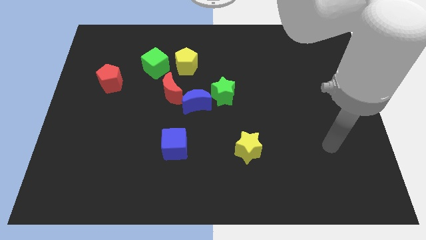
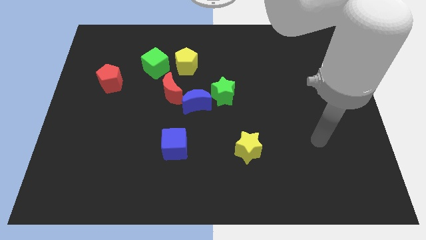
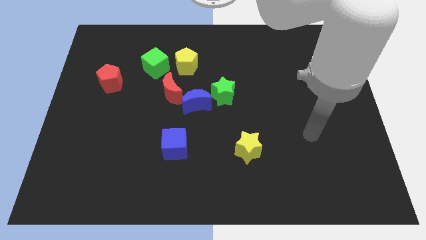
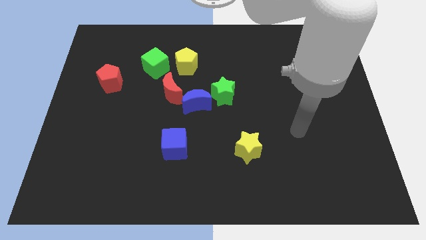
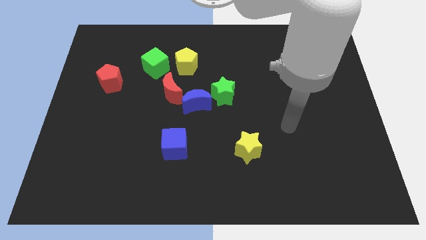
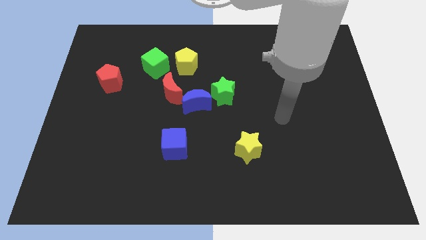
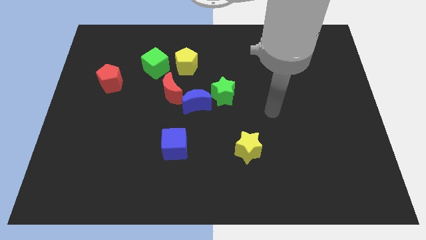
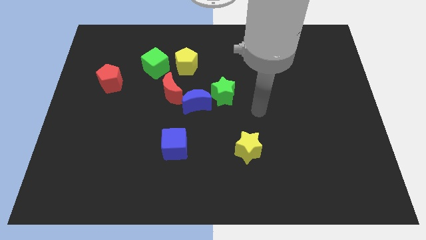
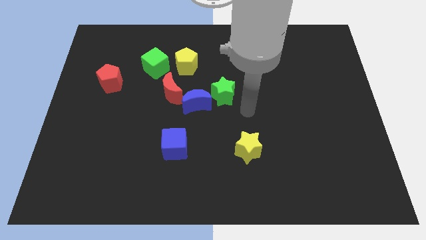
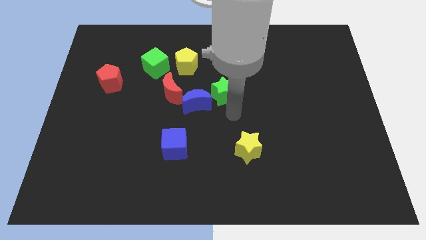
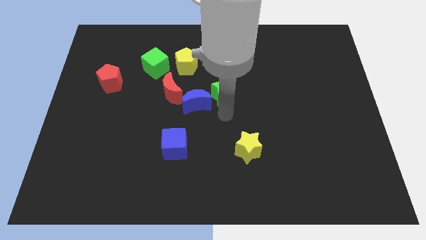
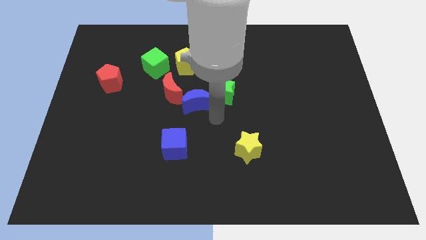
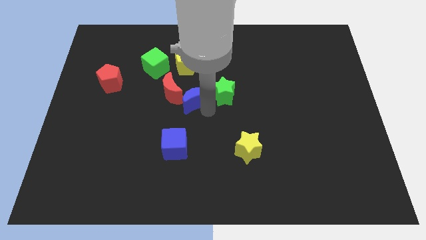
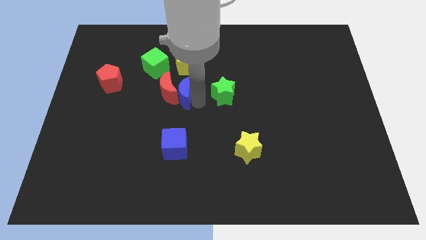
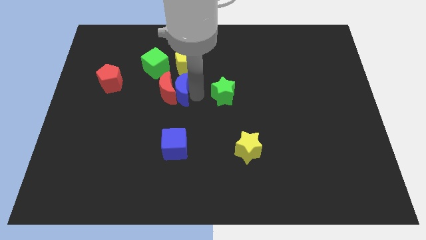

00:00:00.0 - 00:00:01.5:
separate the green star from the blue moon

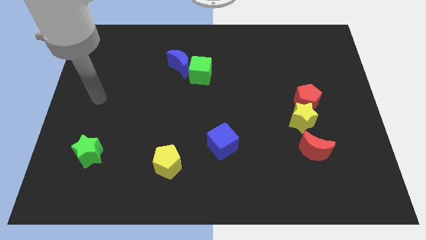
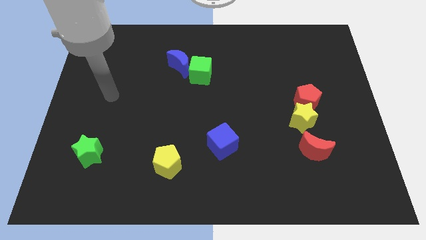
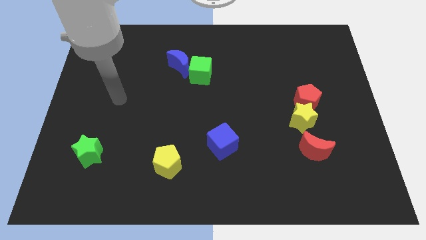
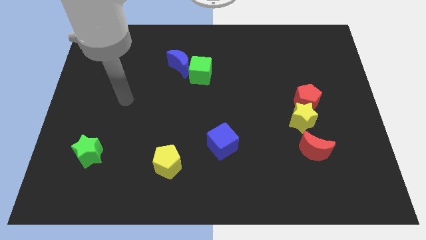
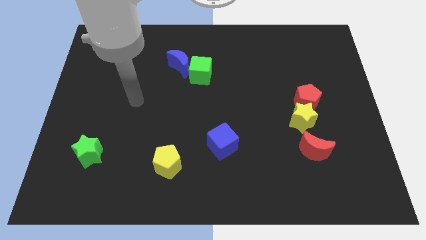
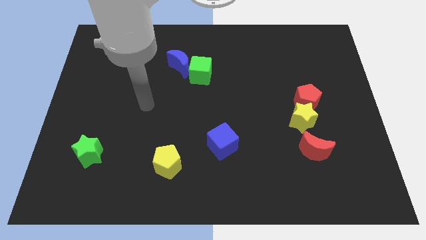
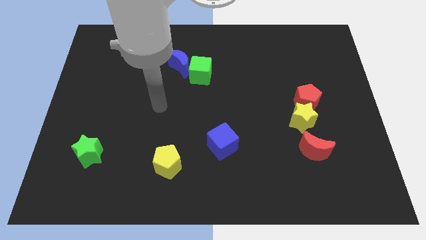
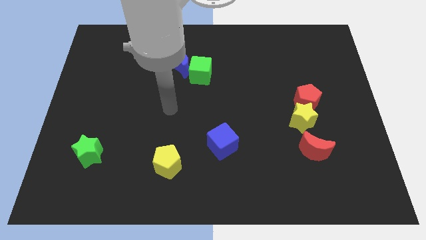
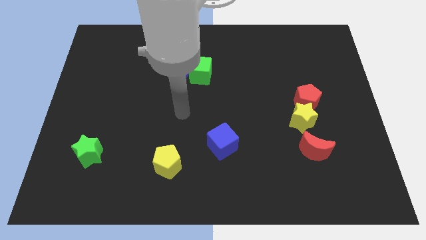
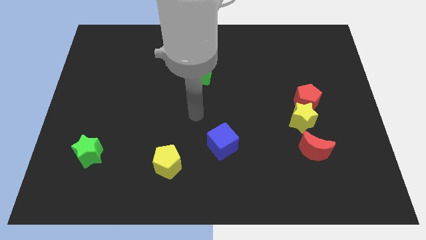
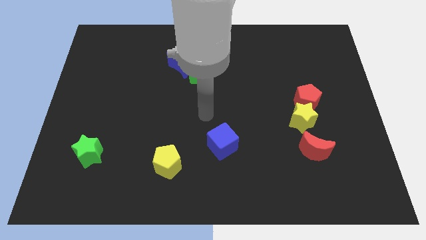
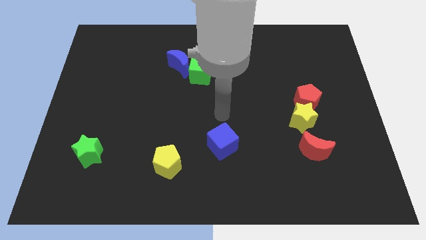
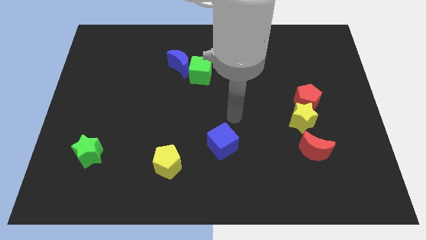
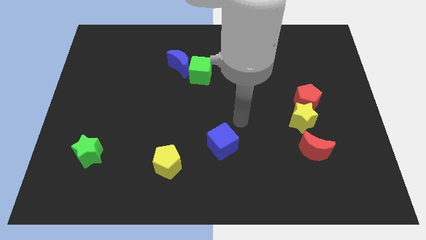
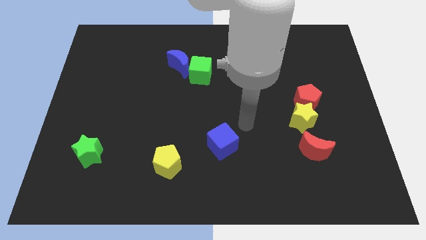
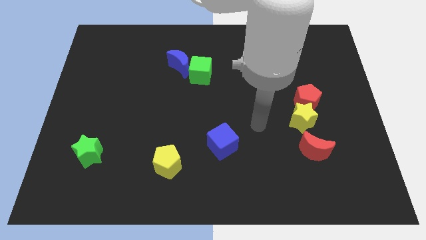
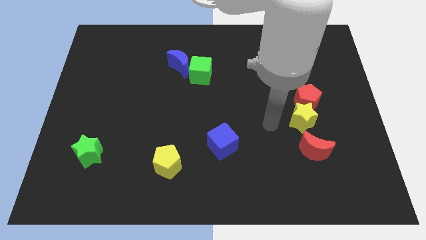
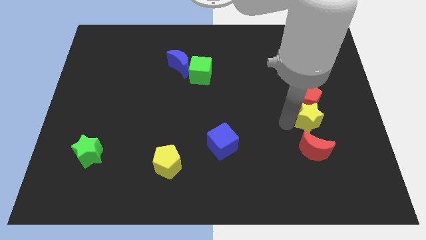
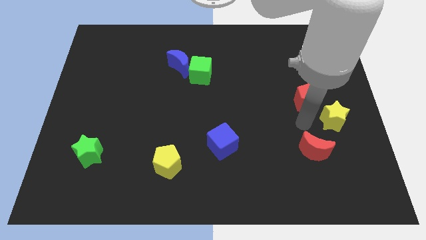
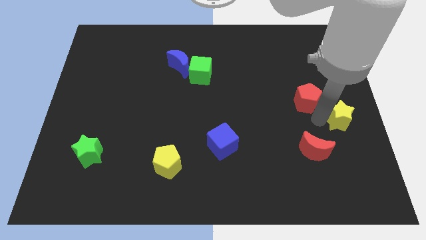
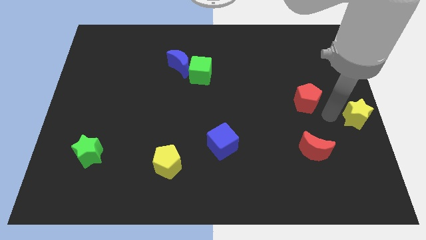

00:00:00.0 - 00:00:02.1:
move the red pentagon away from the yellow star

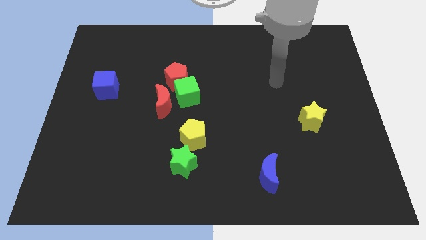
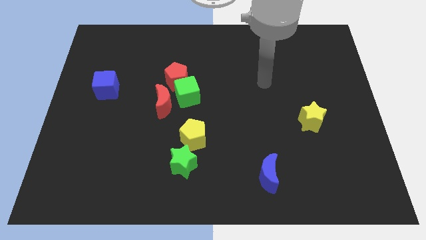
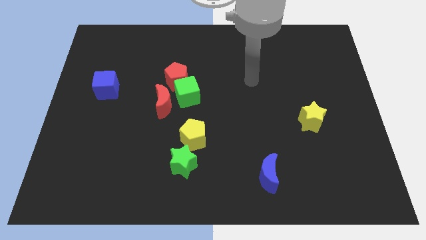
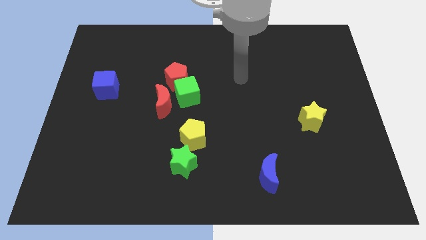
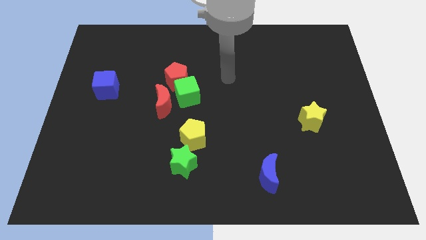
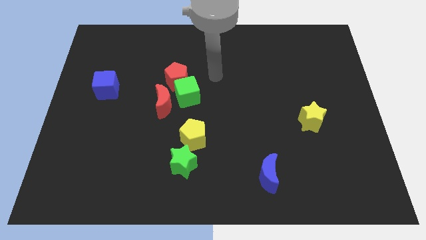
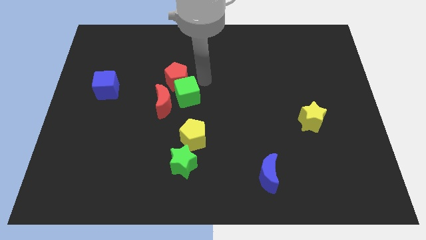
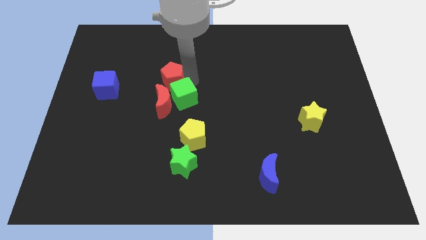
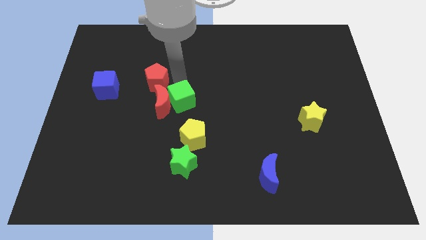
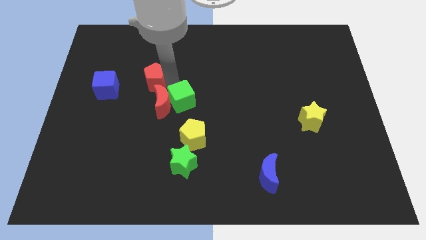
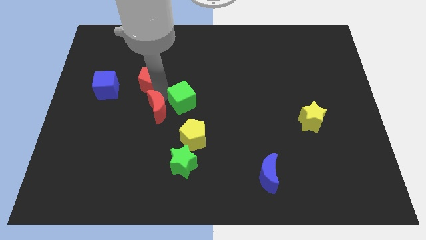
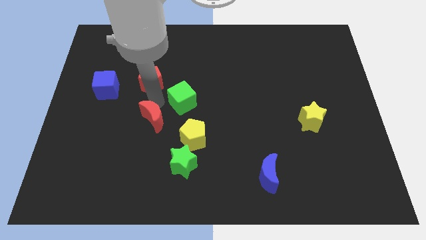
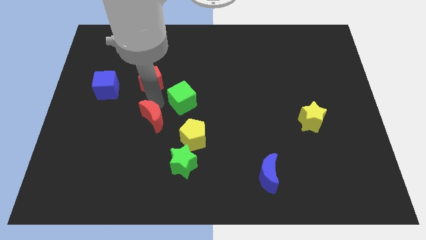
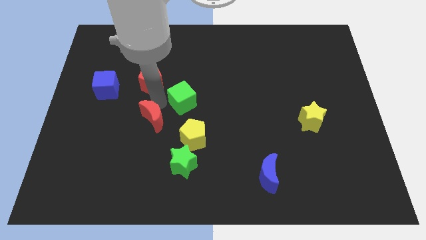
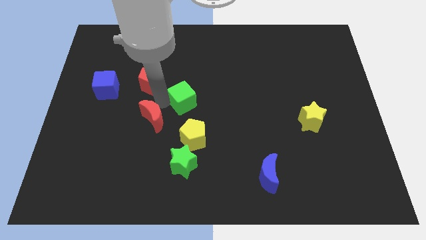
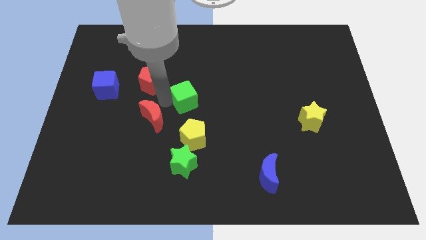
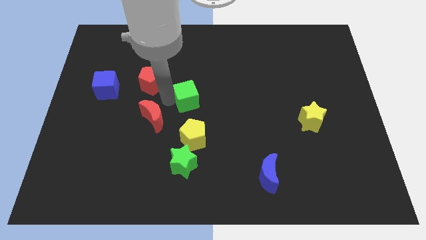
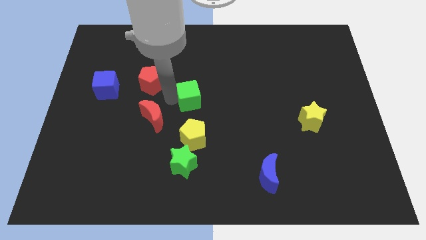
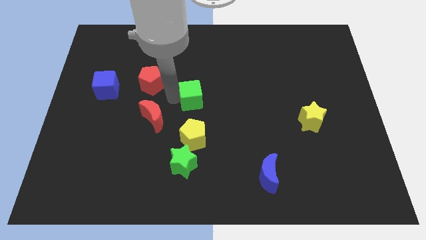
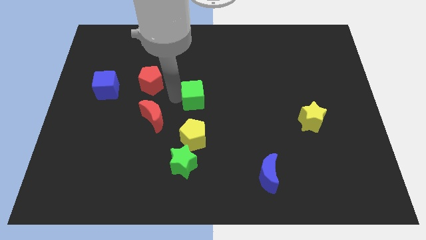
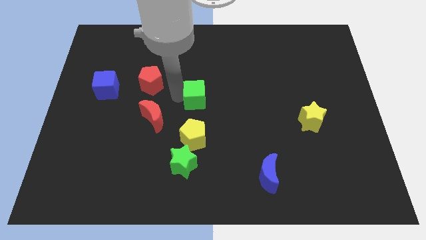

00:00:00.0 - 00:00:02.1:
separate the green cube from the red pentagon and red moon

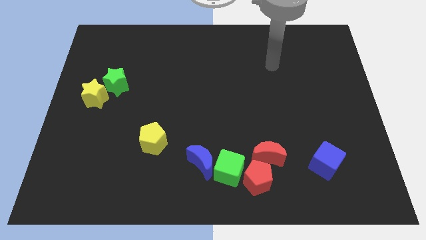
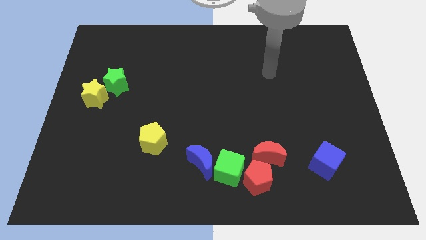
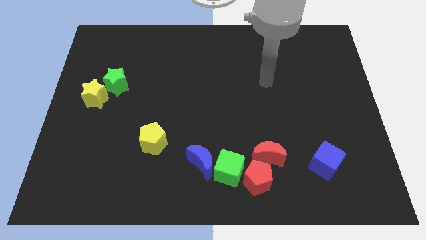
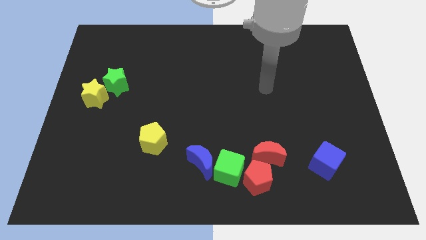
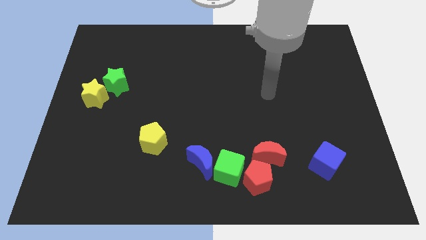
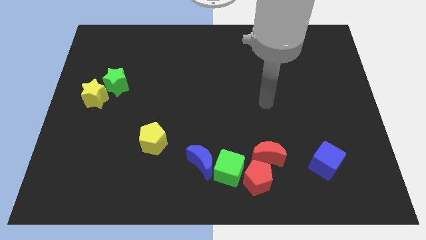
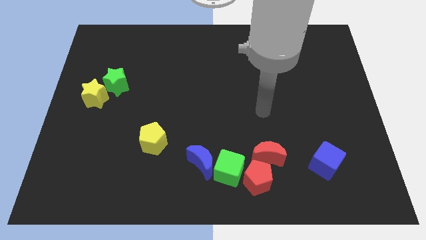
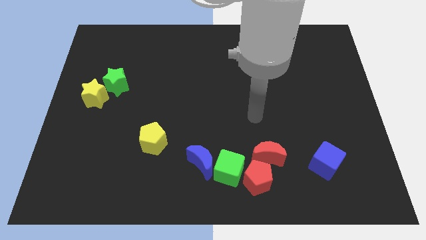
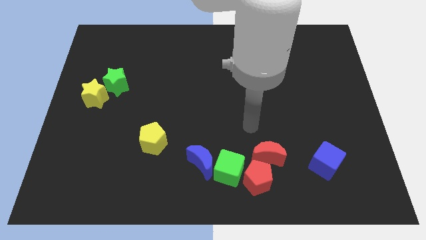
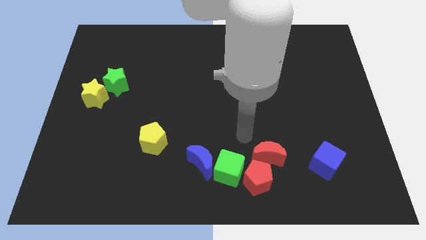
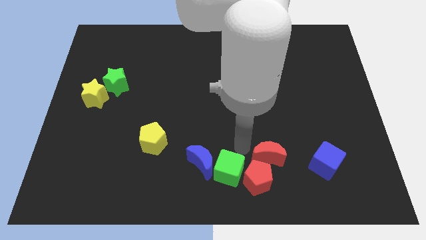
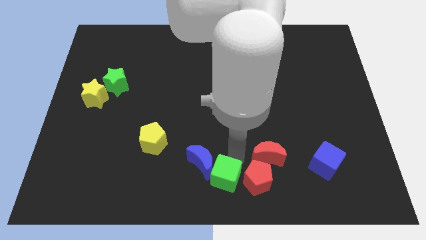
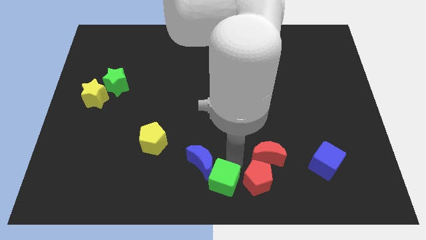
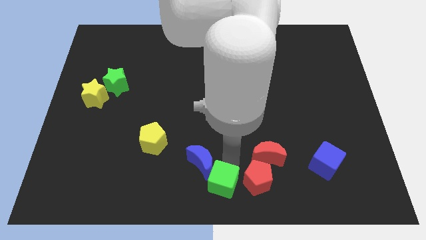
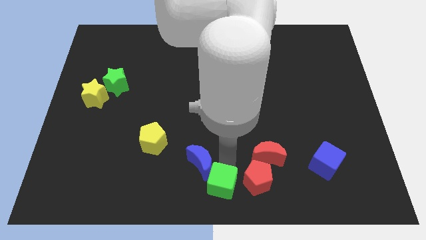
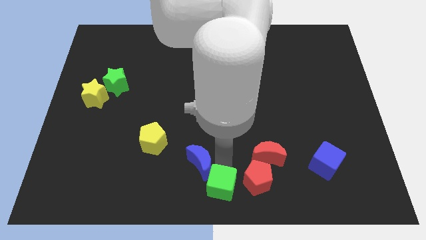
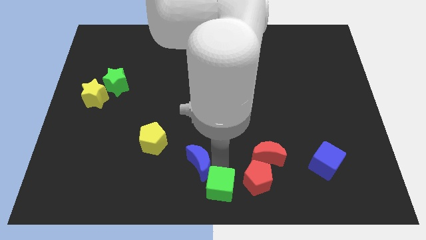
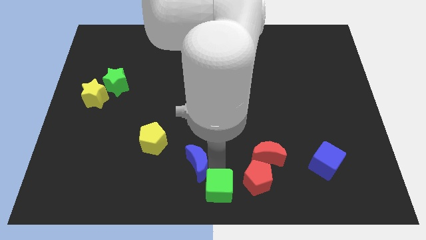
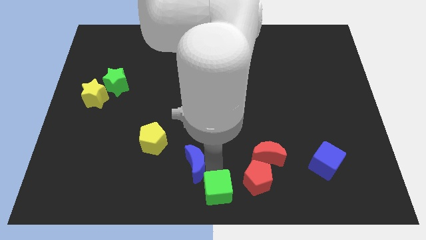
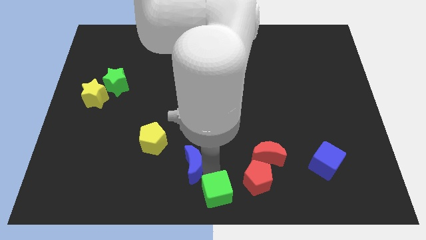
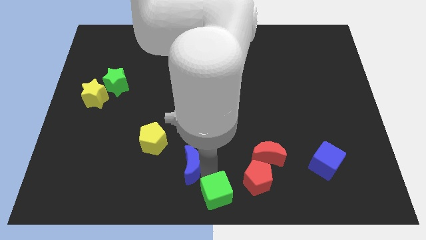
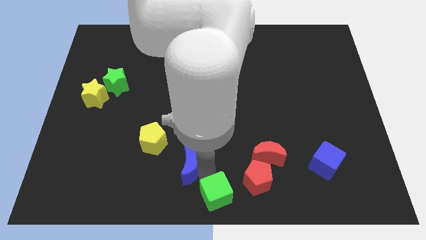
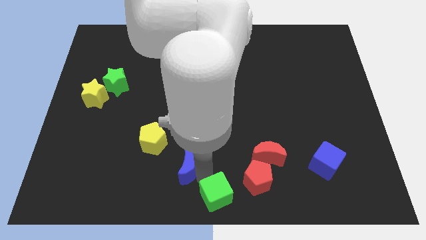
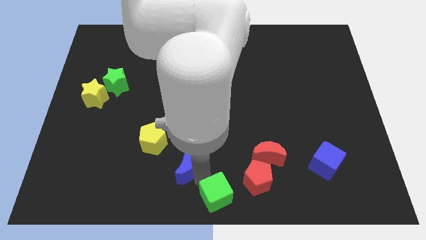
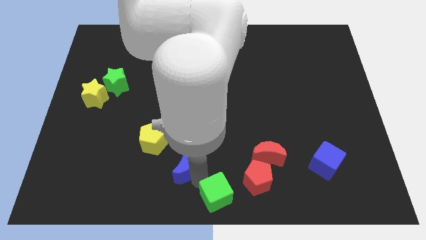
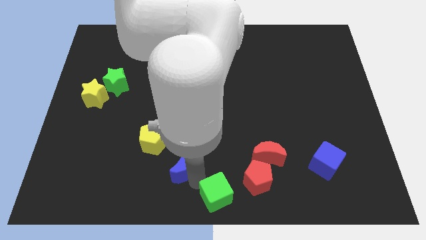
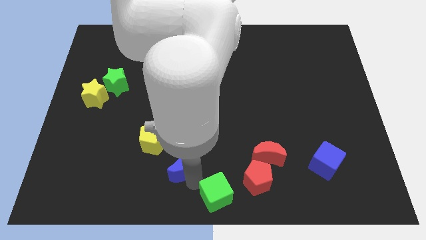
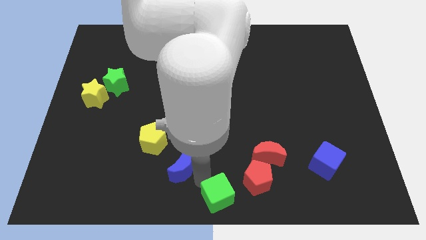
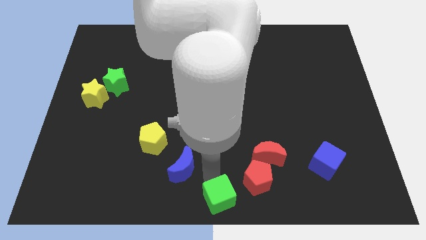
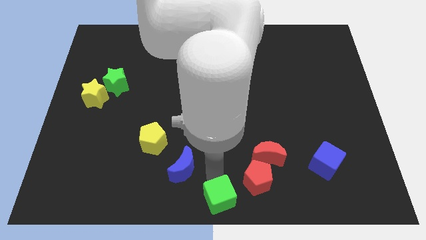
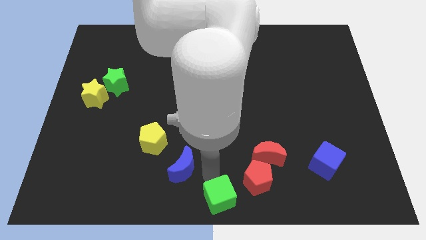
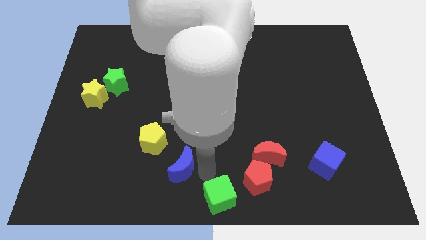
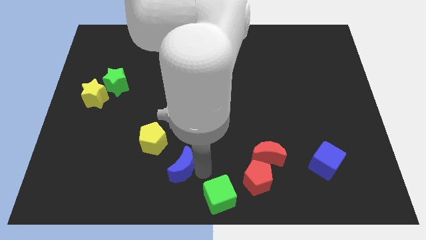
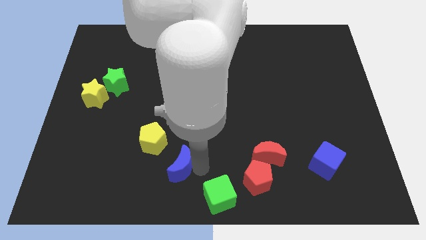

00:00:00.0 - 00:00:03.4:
pull the blue moon apart from the green cube

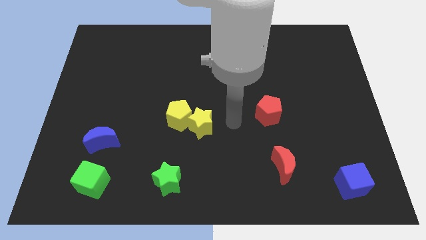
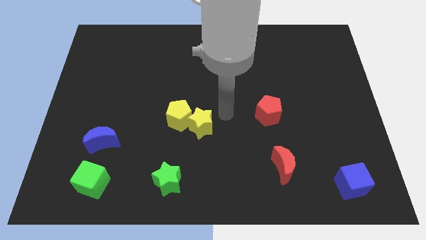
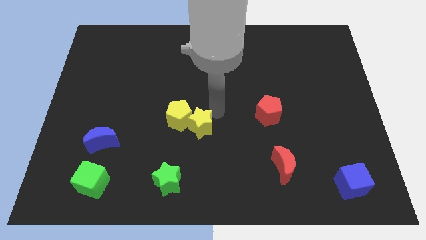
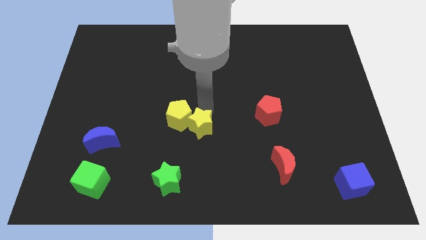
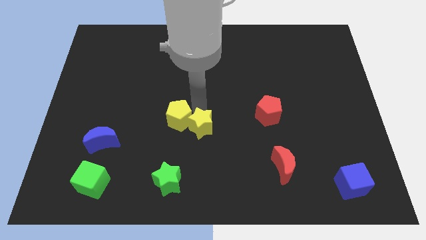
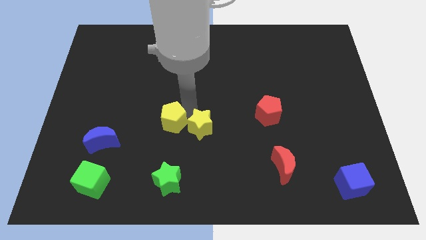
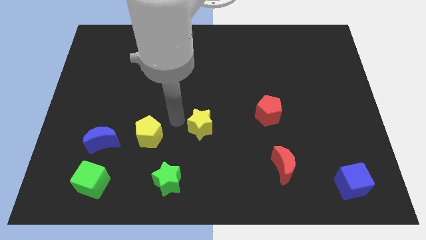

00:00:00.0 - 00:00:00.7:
separate the yellow star from the yellow pentagon
